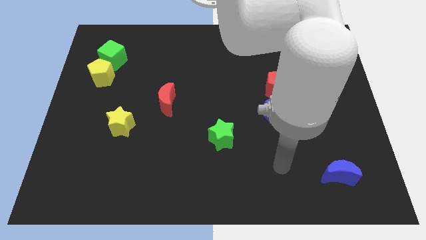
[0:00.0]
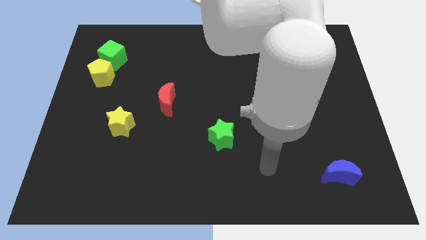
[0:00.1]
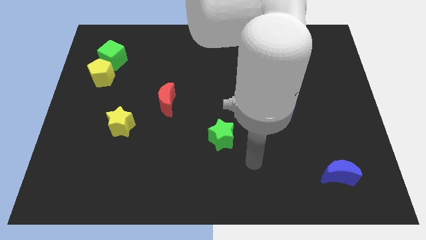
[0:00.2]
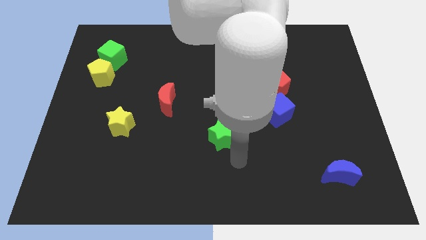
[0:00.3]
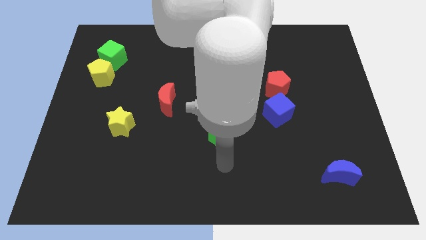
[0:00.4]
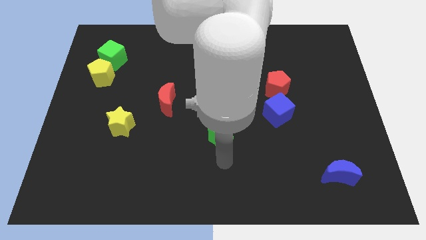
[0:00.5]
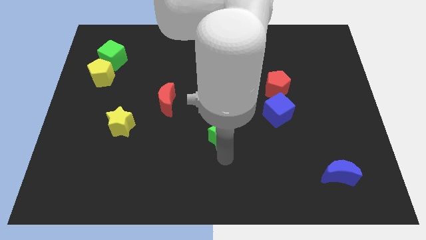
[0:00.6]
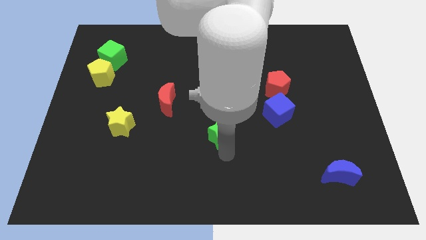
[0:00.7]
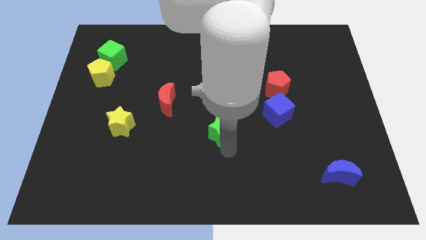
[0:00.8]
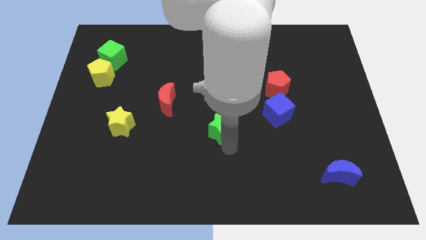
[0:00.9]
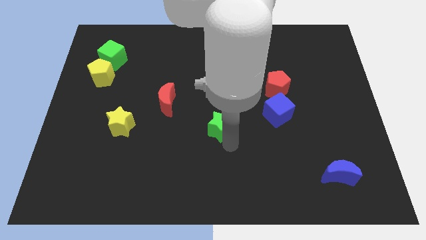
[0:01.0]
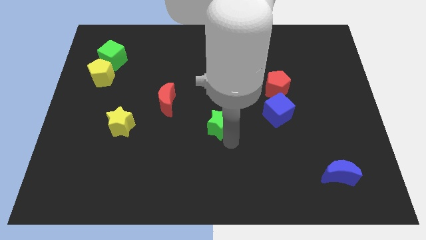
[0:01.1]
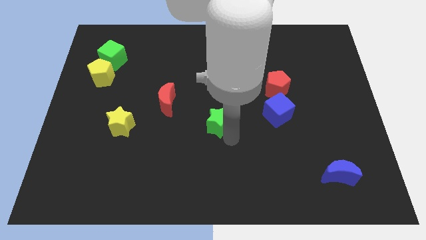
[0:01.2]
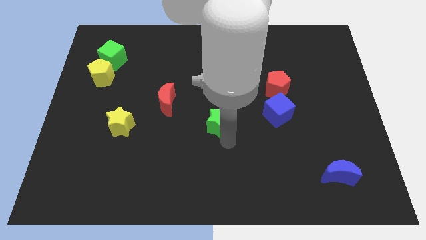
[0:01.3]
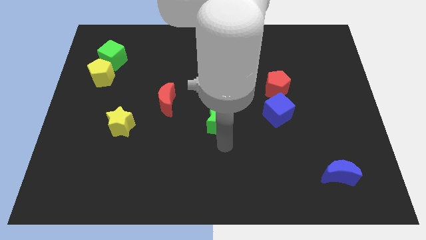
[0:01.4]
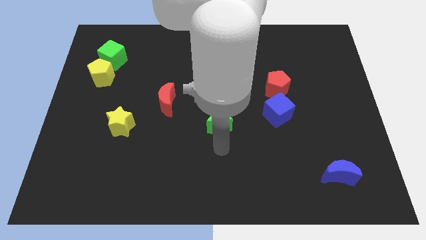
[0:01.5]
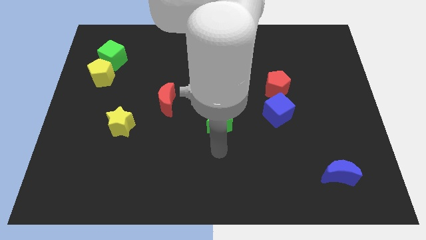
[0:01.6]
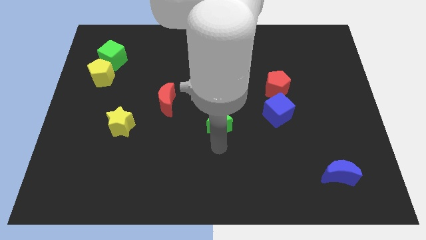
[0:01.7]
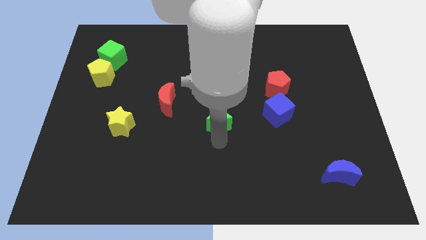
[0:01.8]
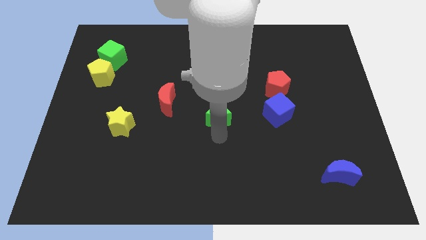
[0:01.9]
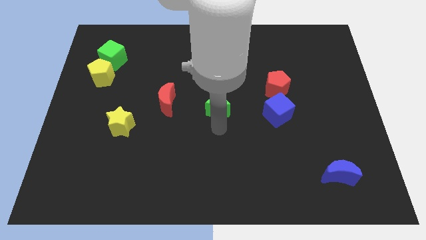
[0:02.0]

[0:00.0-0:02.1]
slide the green star up somewhat

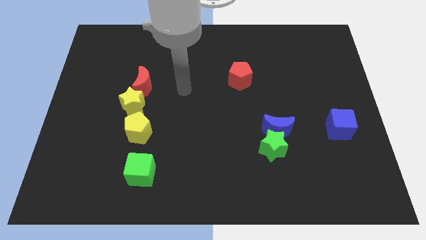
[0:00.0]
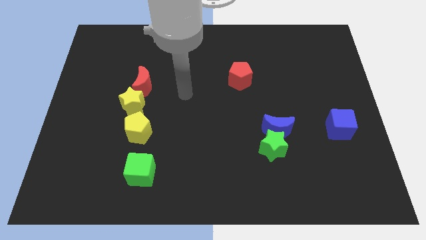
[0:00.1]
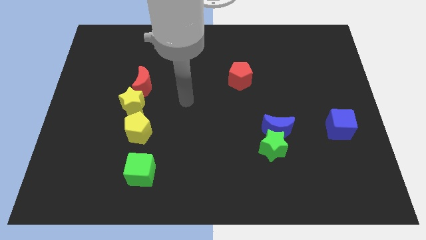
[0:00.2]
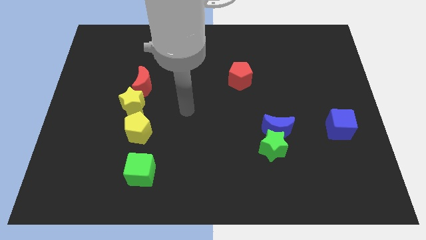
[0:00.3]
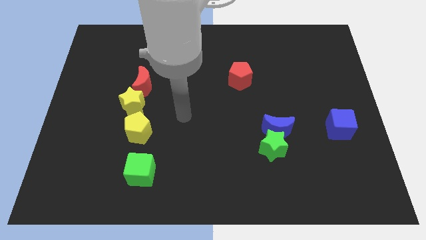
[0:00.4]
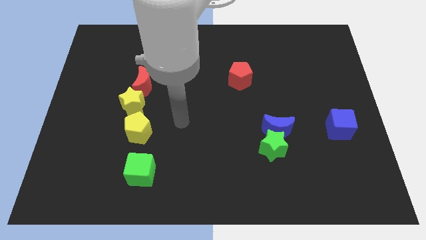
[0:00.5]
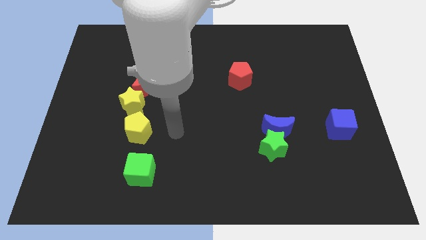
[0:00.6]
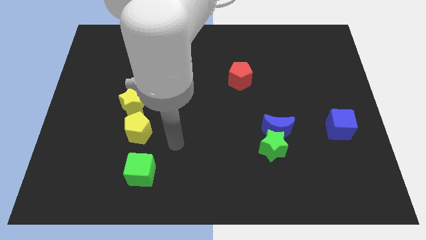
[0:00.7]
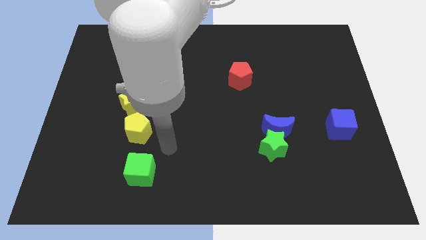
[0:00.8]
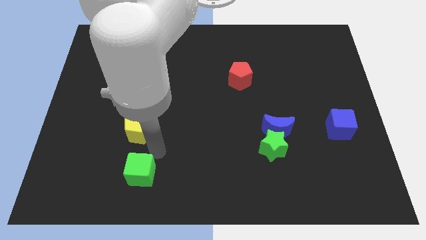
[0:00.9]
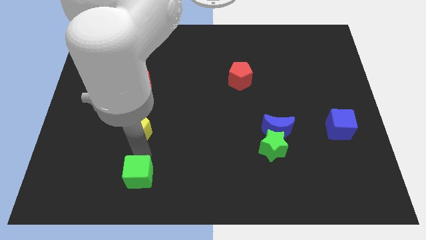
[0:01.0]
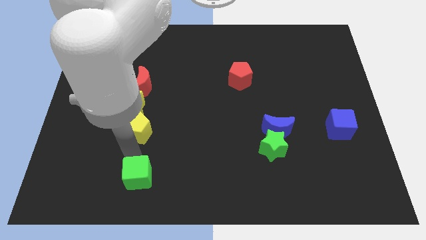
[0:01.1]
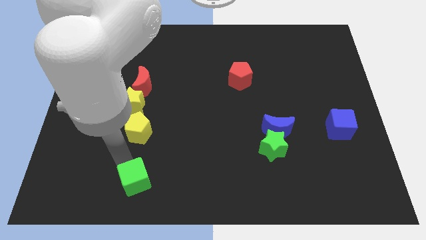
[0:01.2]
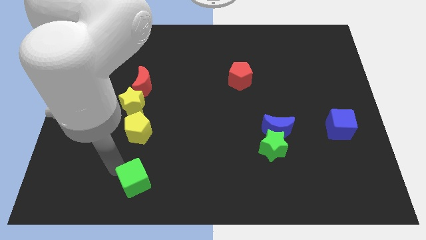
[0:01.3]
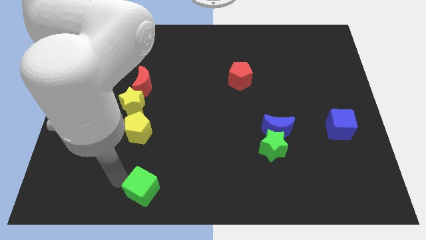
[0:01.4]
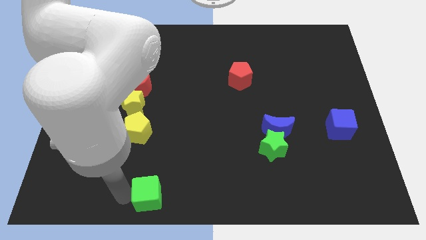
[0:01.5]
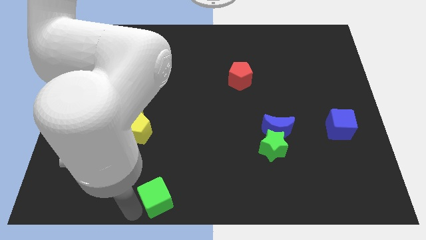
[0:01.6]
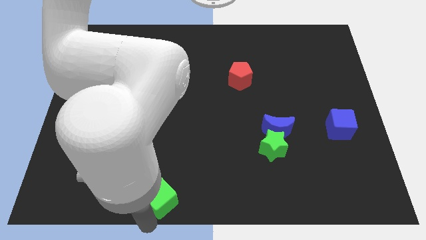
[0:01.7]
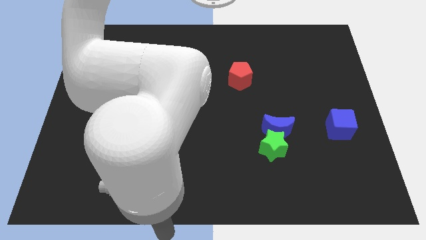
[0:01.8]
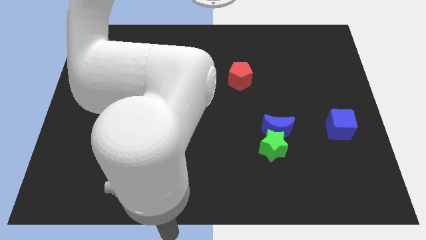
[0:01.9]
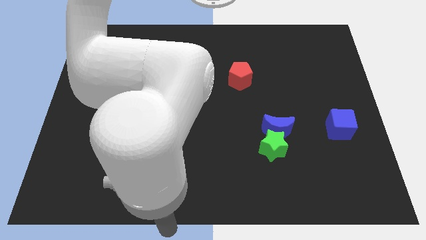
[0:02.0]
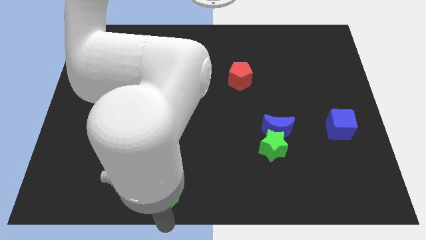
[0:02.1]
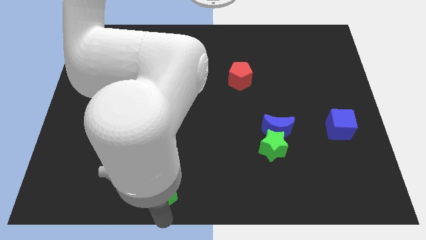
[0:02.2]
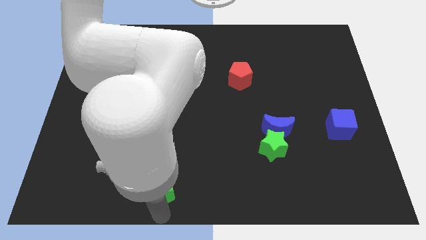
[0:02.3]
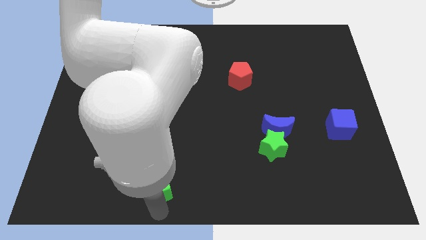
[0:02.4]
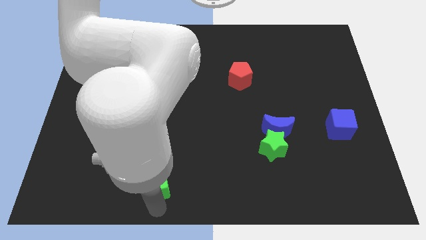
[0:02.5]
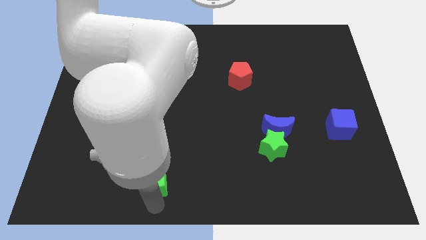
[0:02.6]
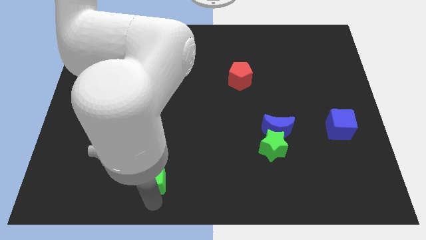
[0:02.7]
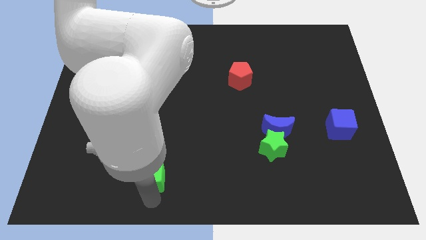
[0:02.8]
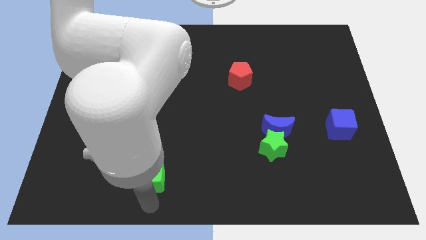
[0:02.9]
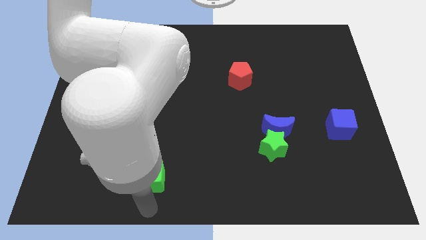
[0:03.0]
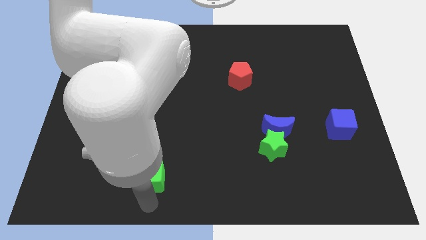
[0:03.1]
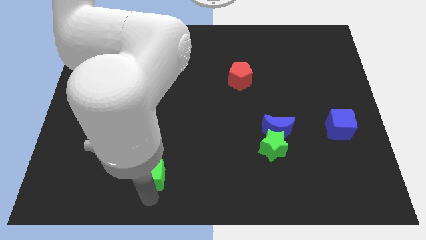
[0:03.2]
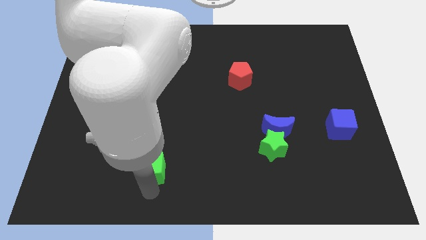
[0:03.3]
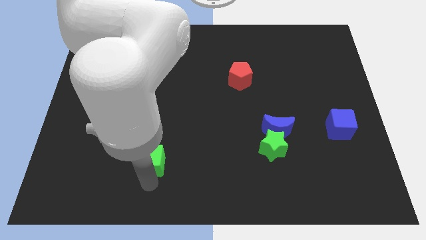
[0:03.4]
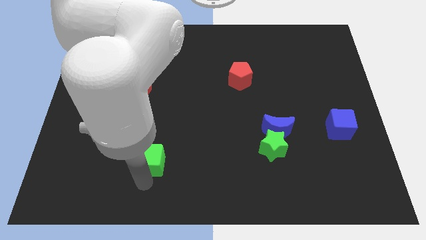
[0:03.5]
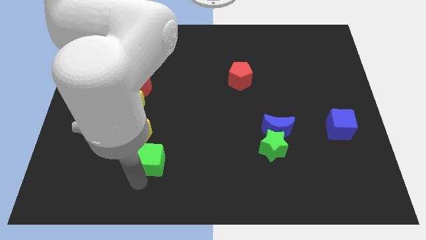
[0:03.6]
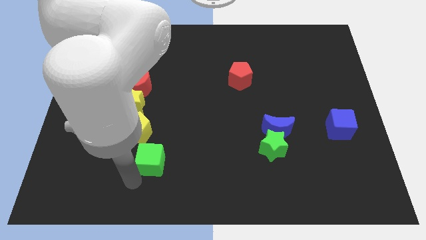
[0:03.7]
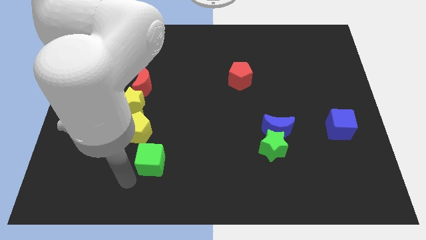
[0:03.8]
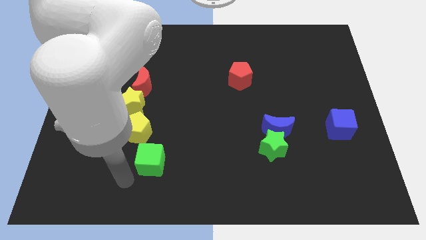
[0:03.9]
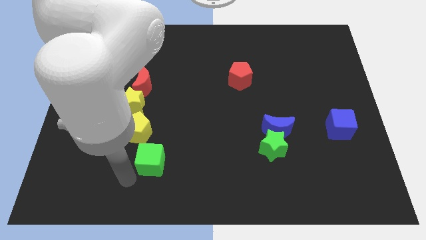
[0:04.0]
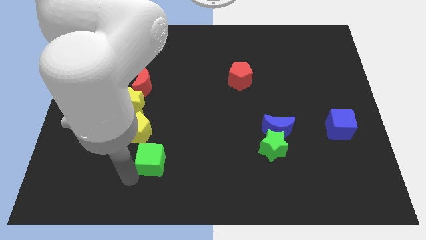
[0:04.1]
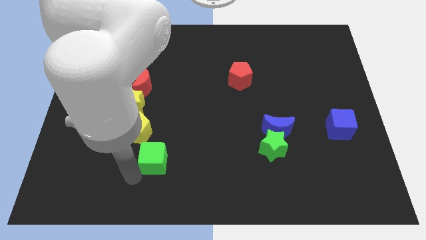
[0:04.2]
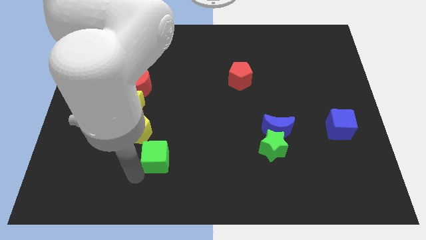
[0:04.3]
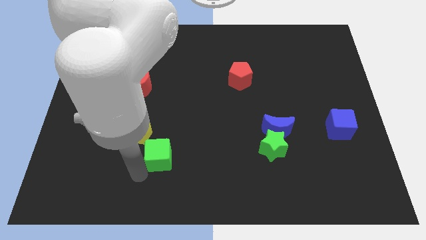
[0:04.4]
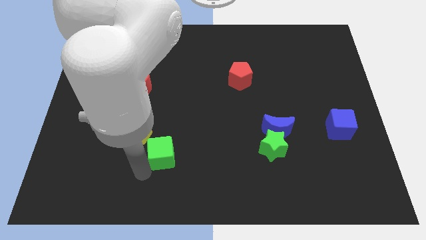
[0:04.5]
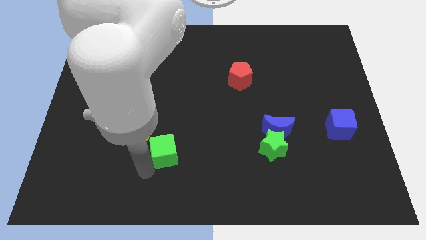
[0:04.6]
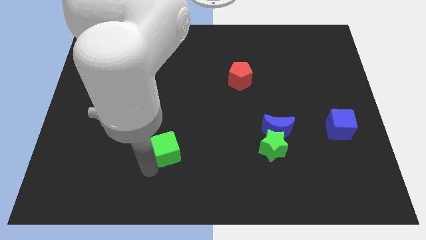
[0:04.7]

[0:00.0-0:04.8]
move the green cube up and right diagonally a little bit

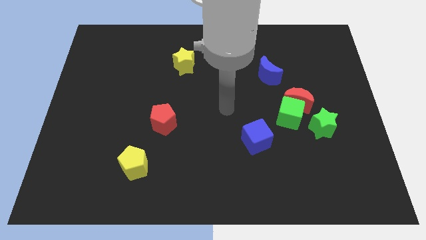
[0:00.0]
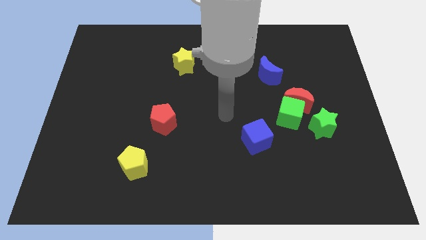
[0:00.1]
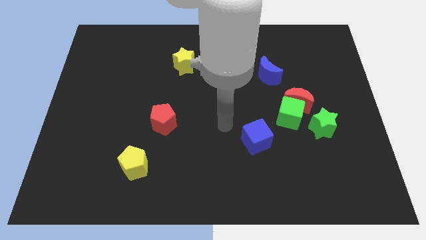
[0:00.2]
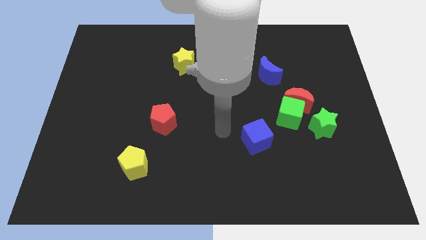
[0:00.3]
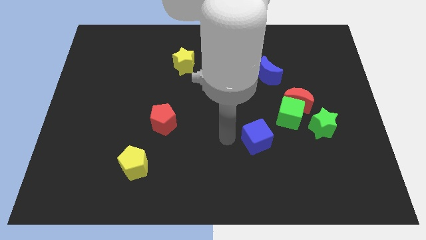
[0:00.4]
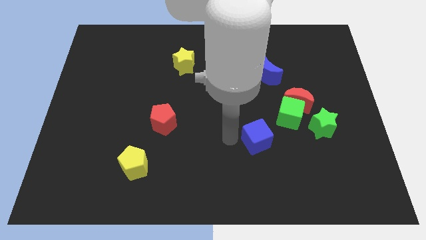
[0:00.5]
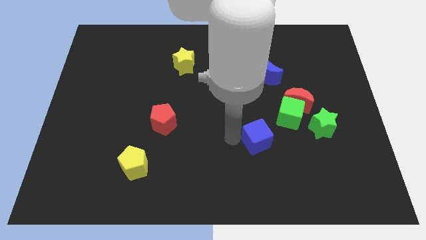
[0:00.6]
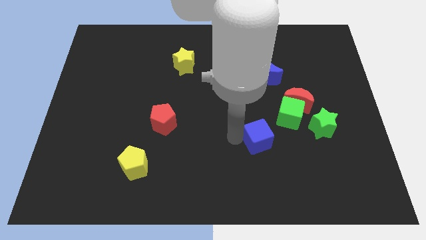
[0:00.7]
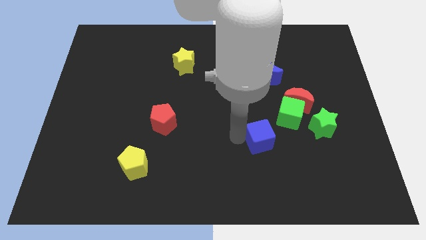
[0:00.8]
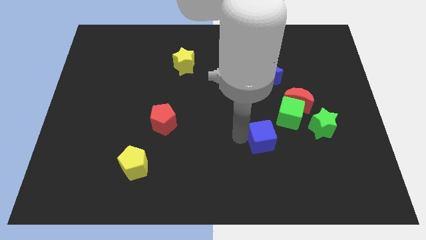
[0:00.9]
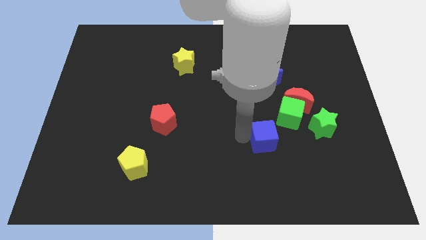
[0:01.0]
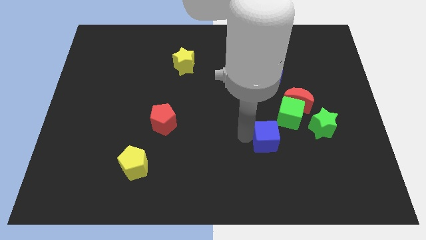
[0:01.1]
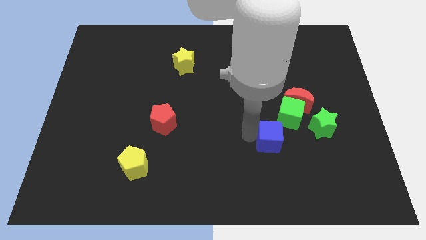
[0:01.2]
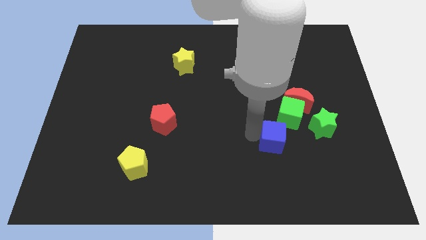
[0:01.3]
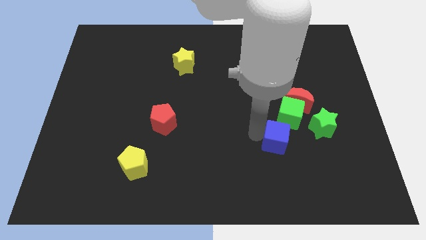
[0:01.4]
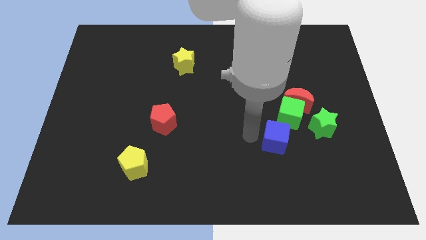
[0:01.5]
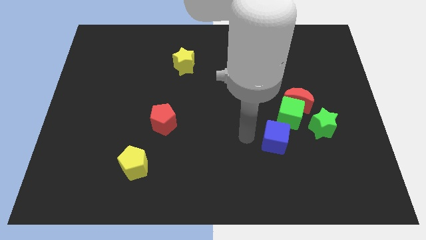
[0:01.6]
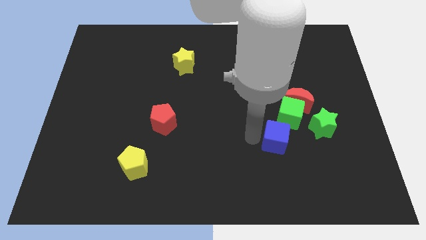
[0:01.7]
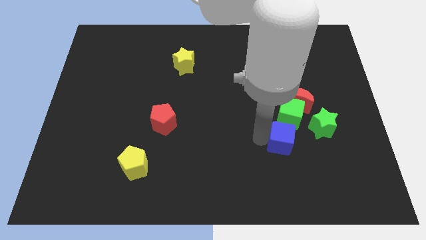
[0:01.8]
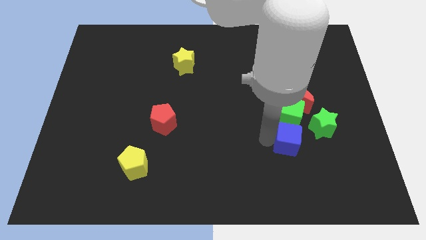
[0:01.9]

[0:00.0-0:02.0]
slightly slide the blue cube to the right
